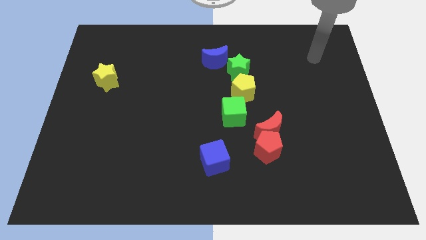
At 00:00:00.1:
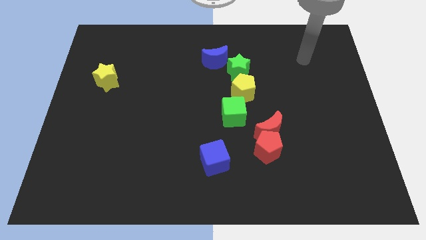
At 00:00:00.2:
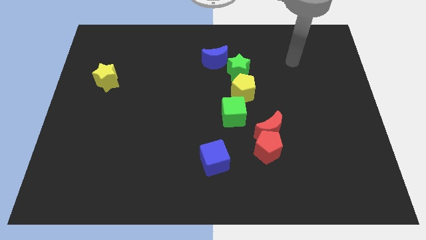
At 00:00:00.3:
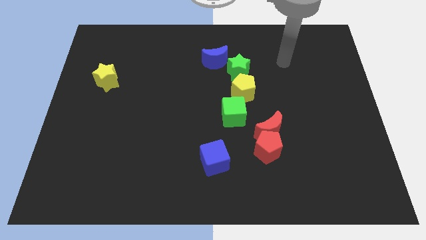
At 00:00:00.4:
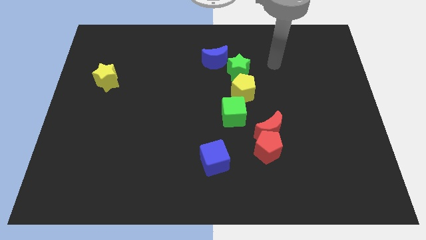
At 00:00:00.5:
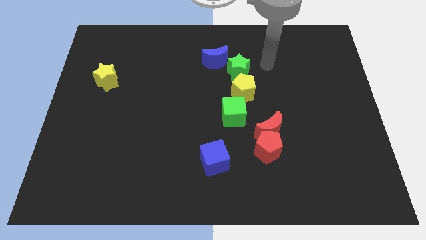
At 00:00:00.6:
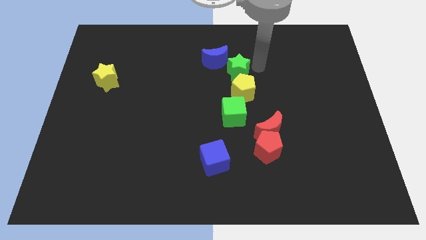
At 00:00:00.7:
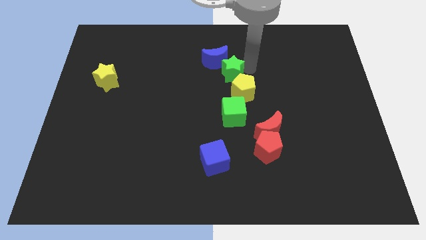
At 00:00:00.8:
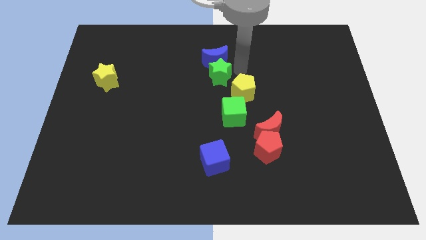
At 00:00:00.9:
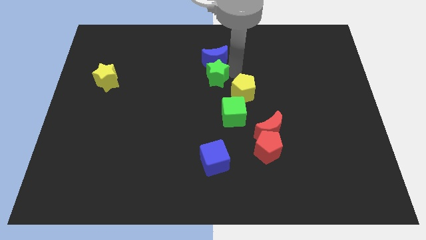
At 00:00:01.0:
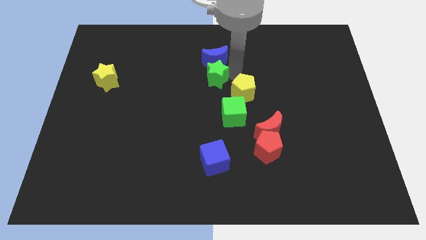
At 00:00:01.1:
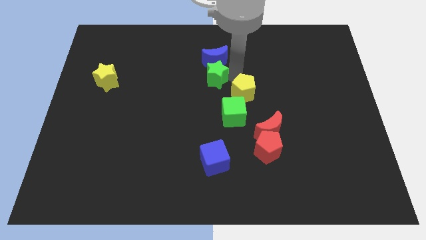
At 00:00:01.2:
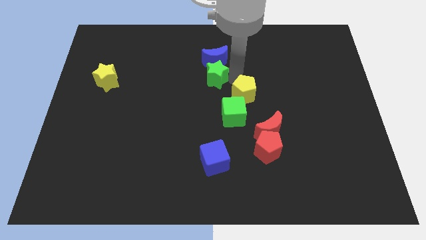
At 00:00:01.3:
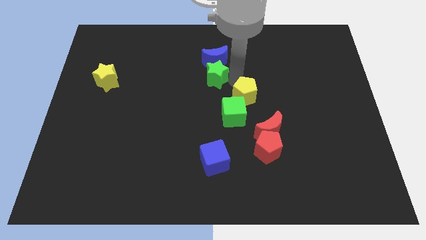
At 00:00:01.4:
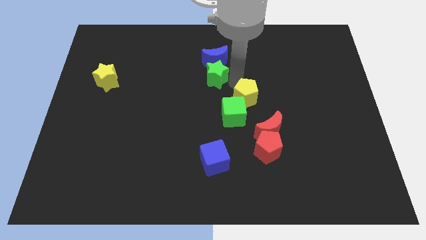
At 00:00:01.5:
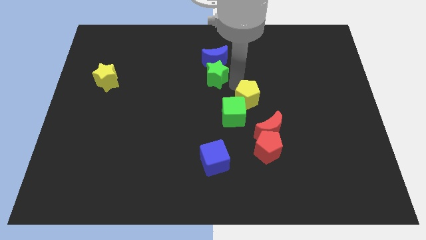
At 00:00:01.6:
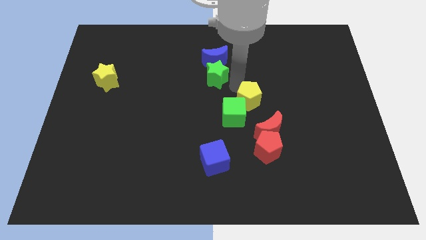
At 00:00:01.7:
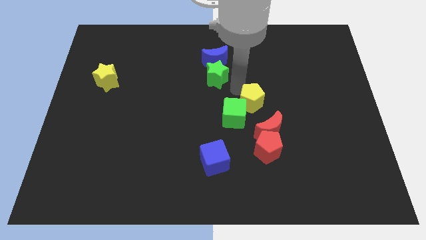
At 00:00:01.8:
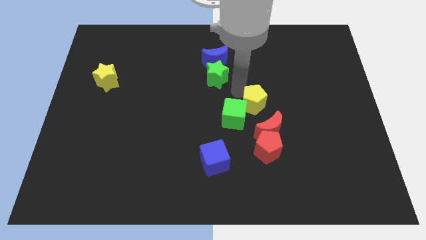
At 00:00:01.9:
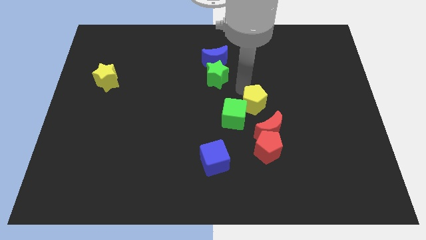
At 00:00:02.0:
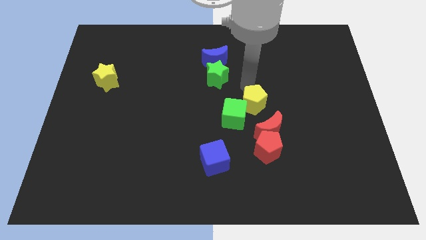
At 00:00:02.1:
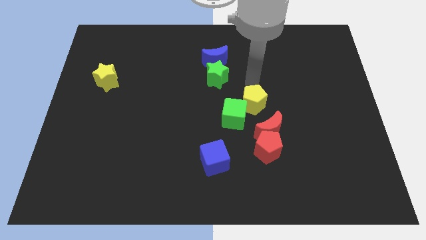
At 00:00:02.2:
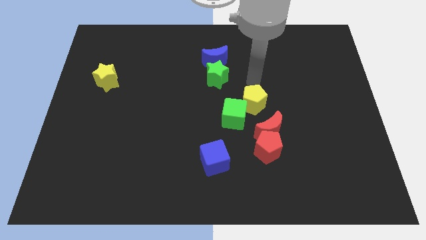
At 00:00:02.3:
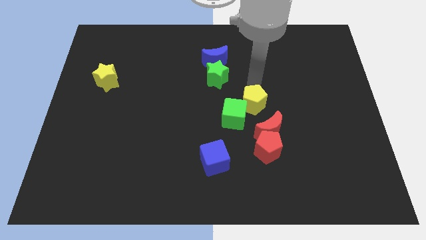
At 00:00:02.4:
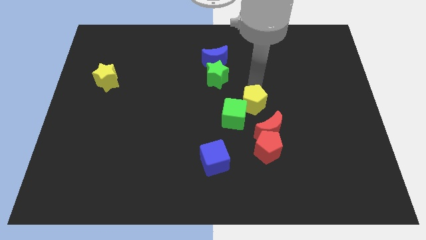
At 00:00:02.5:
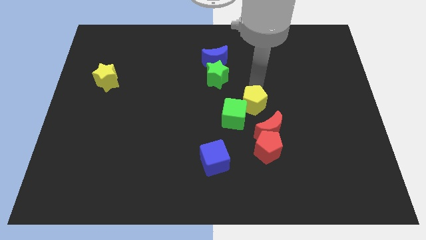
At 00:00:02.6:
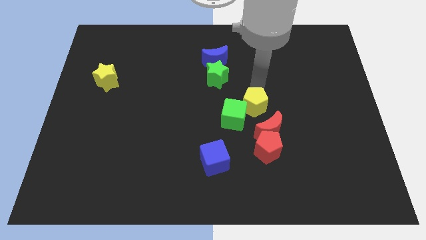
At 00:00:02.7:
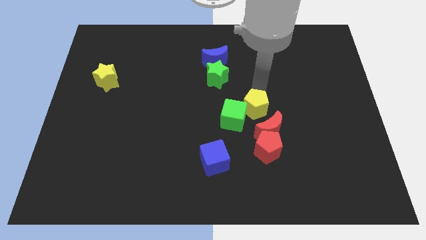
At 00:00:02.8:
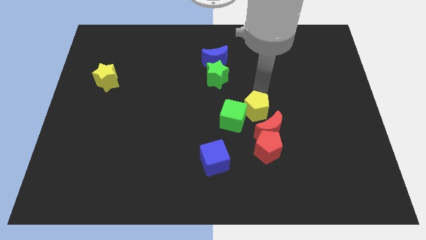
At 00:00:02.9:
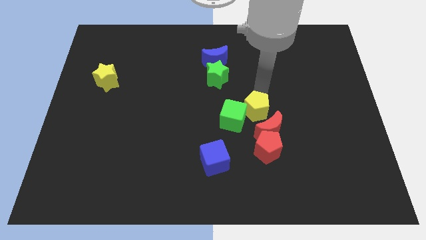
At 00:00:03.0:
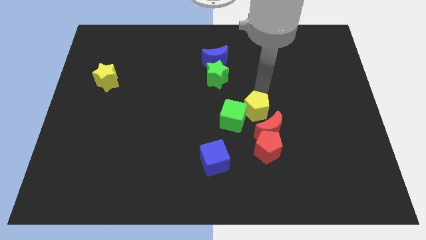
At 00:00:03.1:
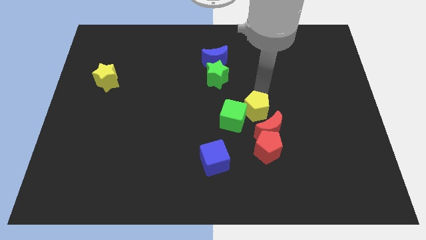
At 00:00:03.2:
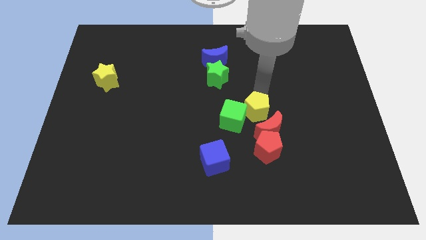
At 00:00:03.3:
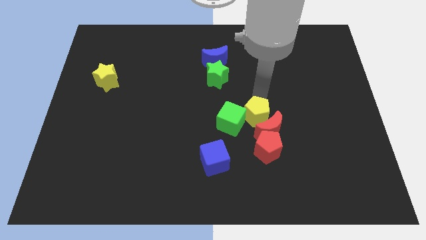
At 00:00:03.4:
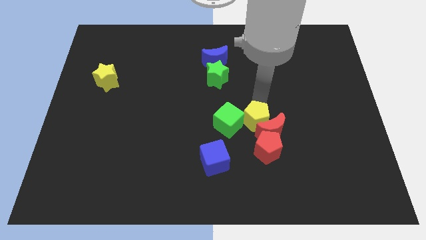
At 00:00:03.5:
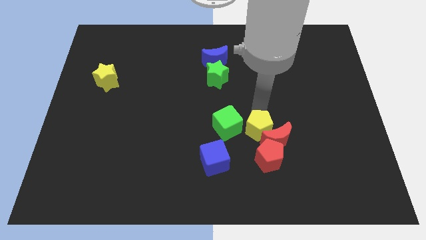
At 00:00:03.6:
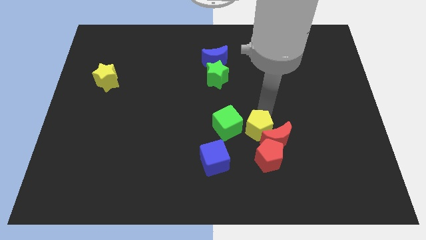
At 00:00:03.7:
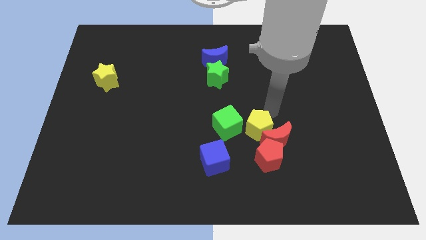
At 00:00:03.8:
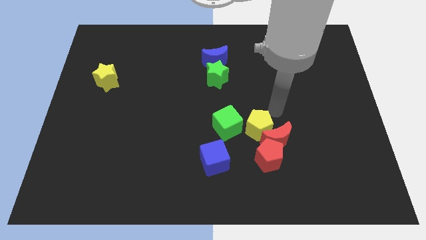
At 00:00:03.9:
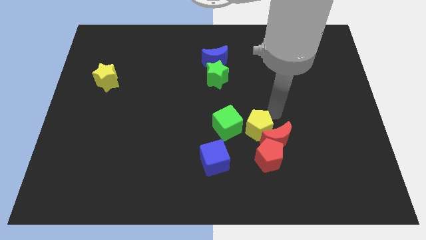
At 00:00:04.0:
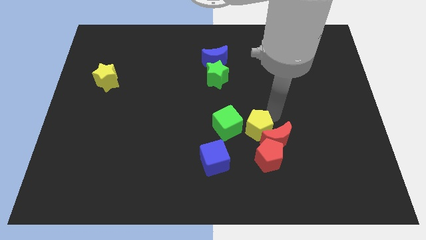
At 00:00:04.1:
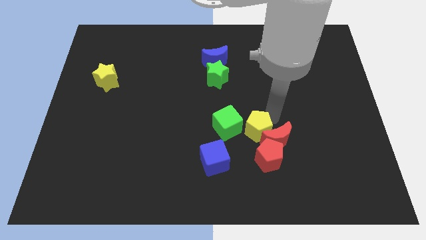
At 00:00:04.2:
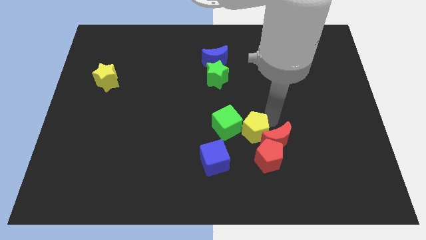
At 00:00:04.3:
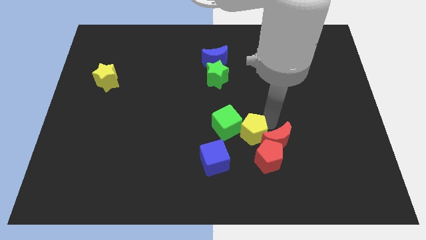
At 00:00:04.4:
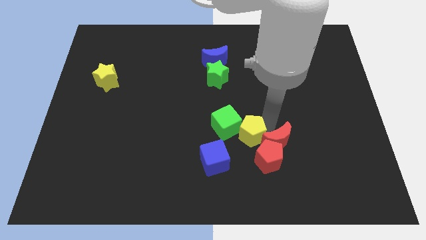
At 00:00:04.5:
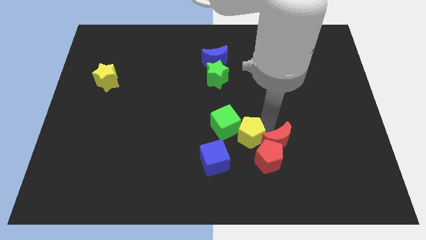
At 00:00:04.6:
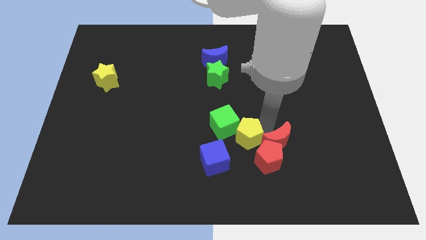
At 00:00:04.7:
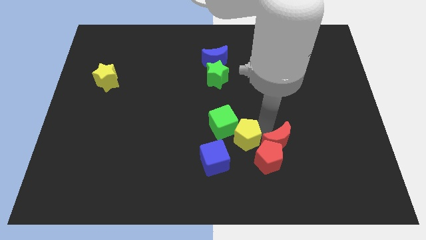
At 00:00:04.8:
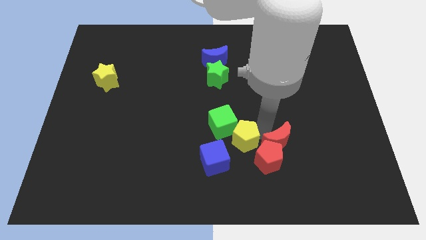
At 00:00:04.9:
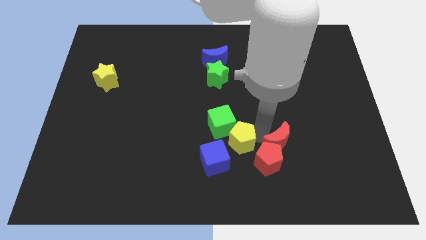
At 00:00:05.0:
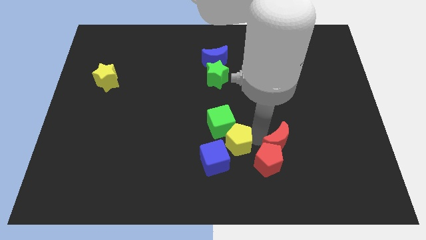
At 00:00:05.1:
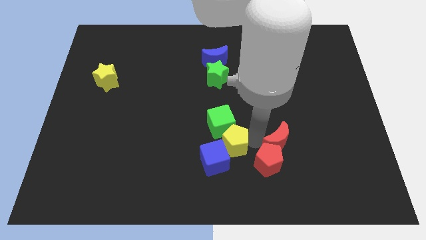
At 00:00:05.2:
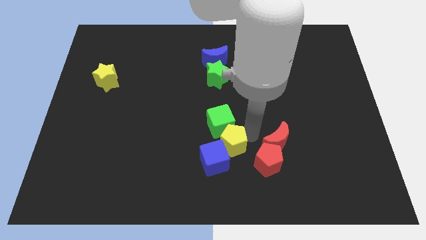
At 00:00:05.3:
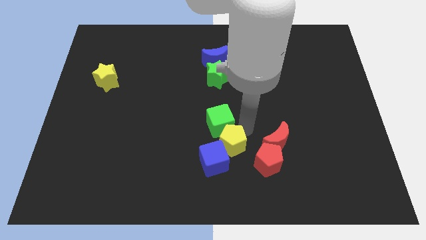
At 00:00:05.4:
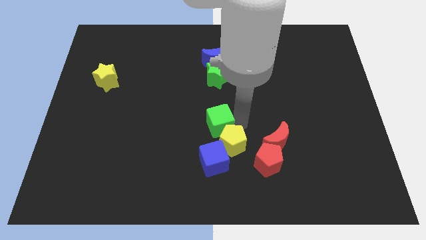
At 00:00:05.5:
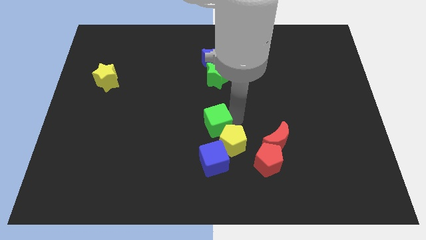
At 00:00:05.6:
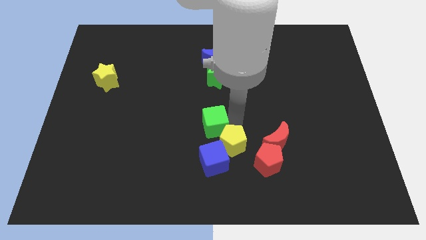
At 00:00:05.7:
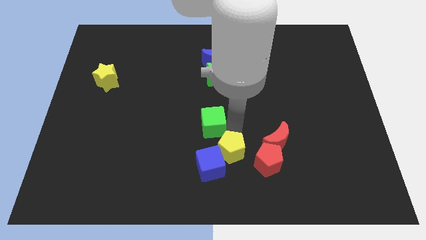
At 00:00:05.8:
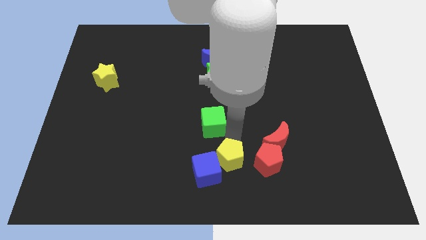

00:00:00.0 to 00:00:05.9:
push the yellow pentagon to the bottom side
